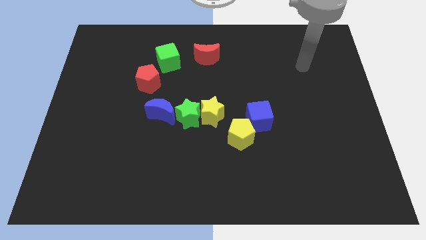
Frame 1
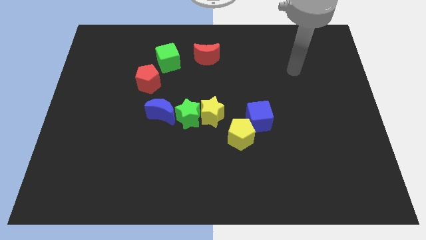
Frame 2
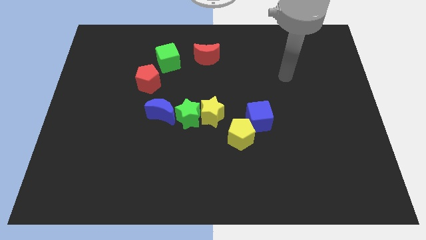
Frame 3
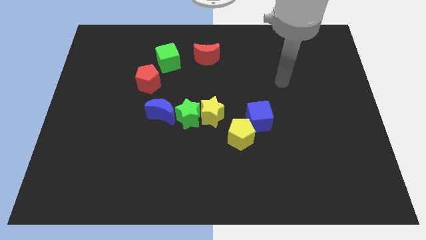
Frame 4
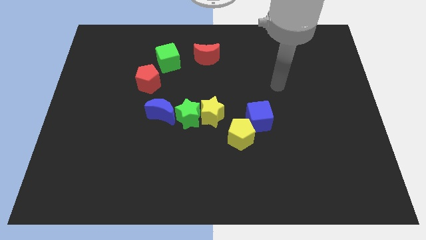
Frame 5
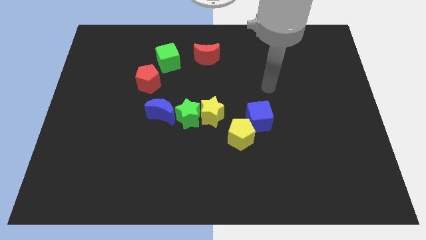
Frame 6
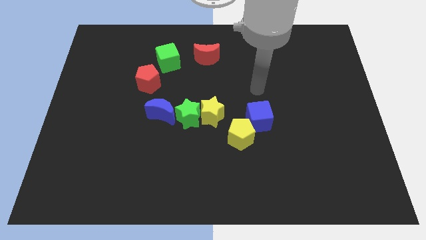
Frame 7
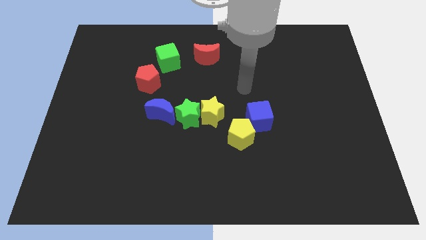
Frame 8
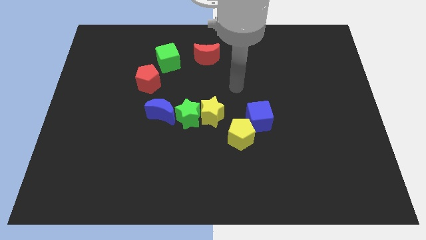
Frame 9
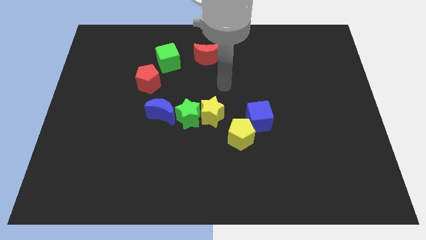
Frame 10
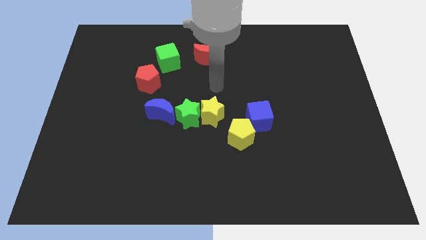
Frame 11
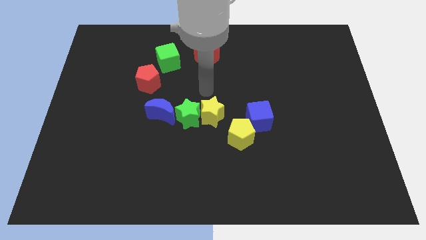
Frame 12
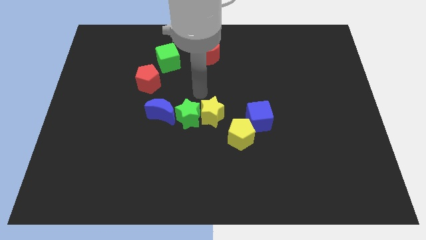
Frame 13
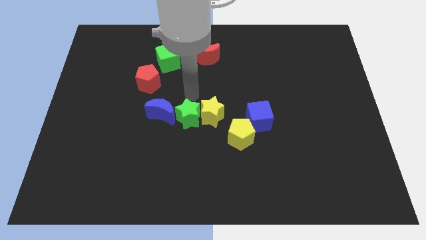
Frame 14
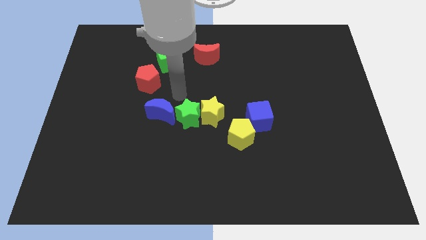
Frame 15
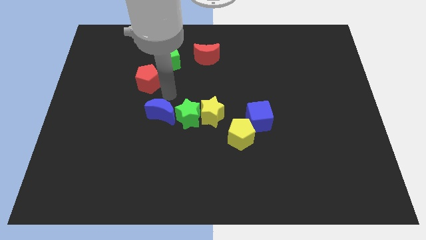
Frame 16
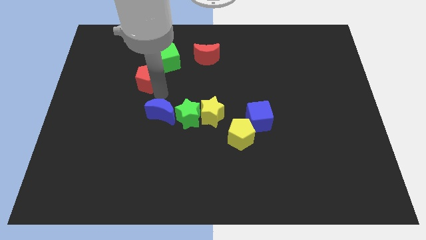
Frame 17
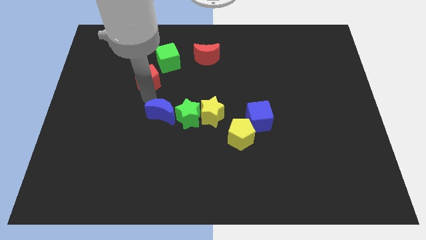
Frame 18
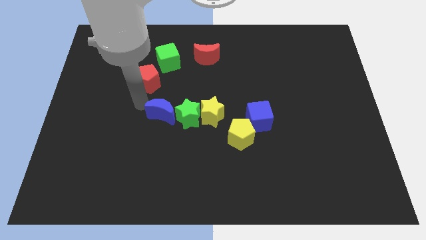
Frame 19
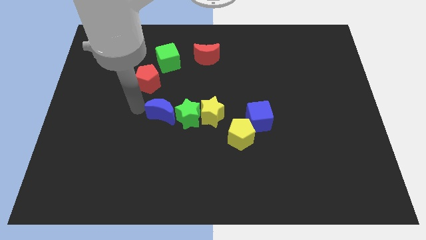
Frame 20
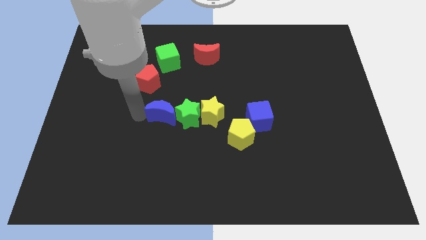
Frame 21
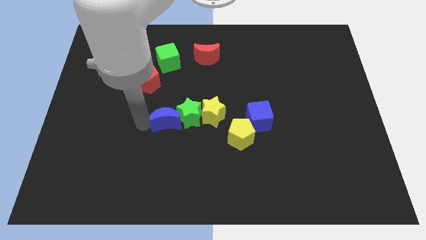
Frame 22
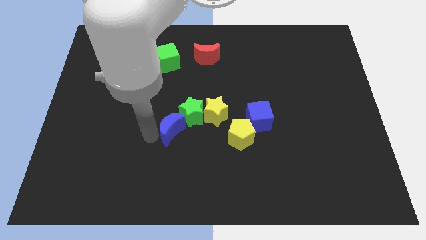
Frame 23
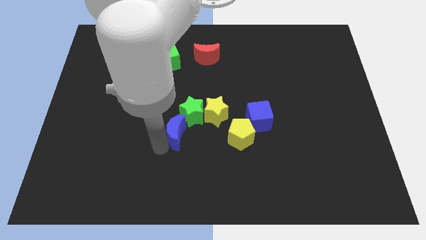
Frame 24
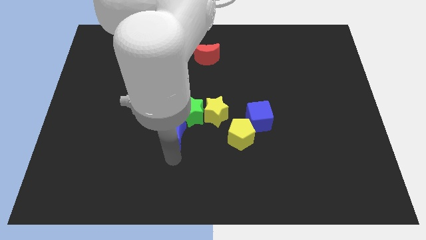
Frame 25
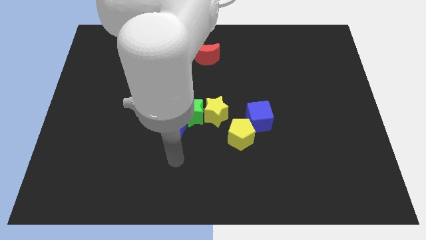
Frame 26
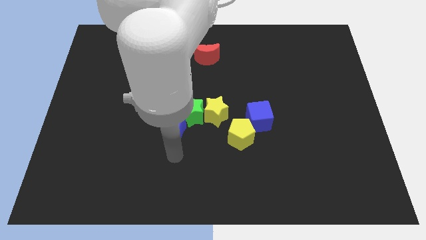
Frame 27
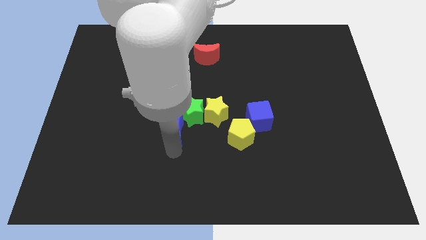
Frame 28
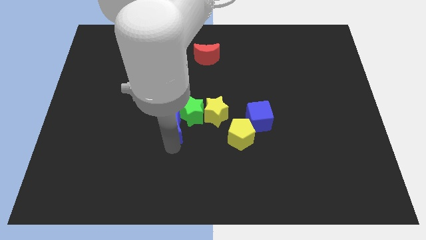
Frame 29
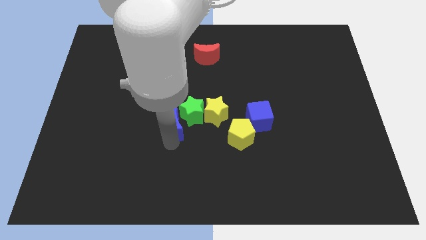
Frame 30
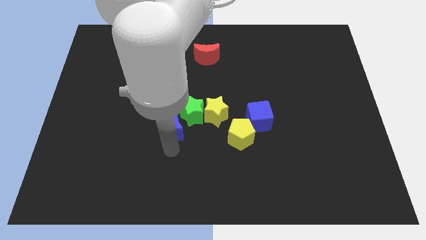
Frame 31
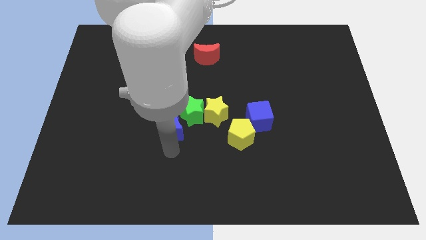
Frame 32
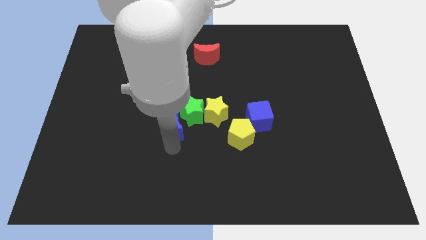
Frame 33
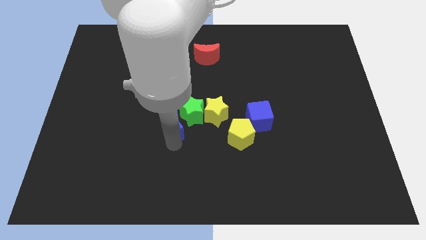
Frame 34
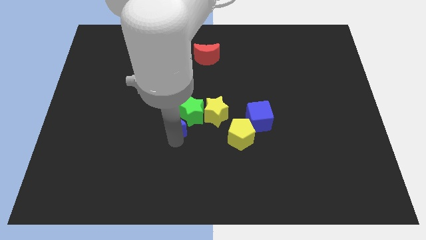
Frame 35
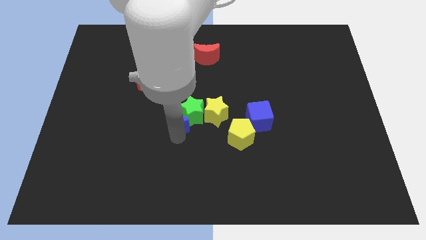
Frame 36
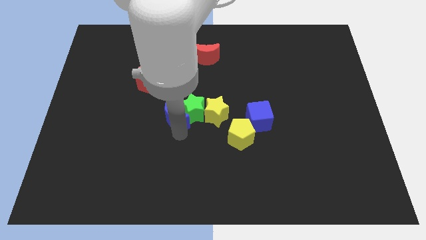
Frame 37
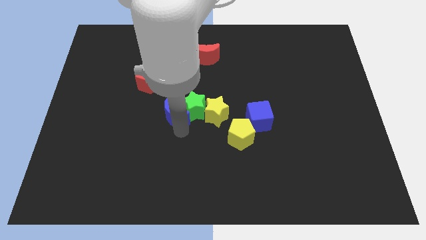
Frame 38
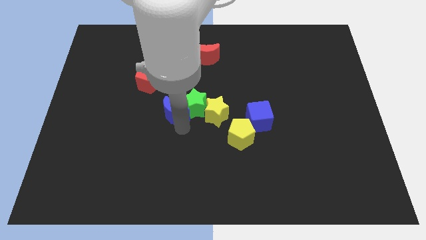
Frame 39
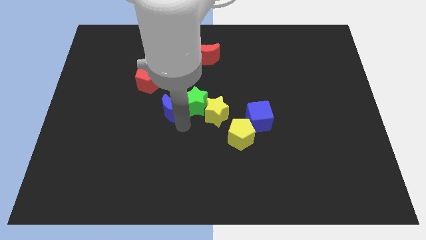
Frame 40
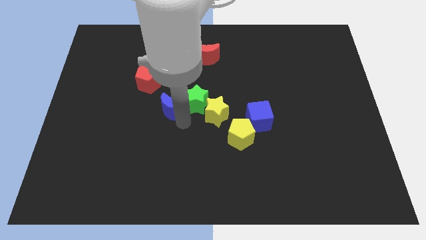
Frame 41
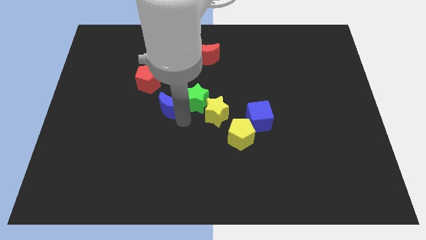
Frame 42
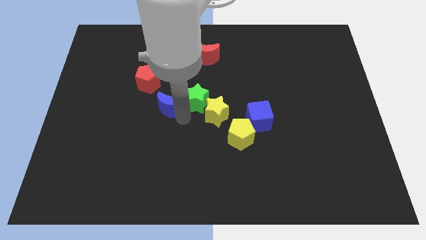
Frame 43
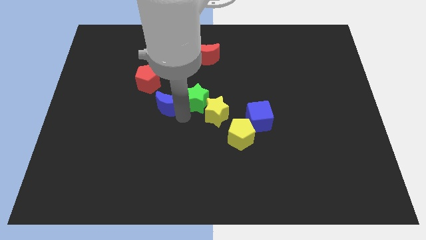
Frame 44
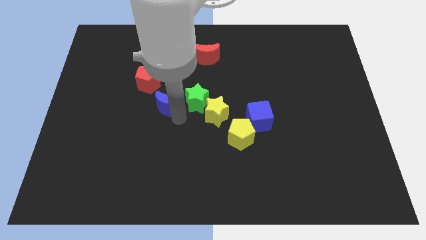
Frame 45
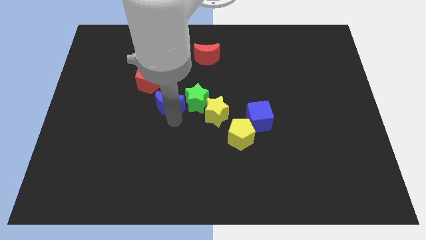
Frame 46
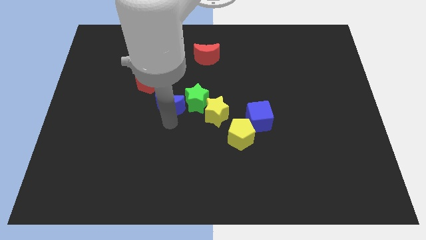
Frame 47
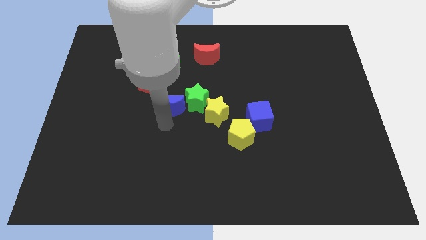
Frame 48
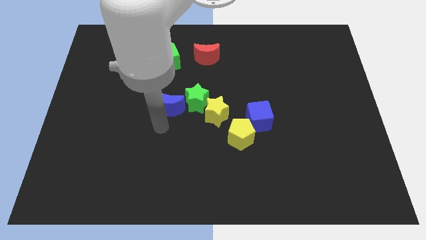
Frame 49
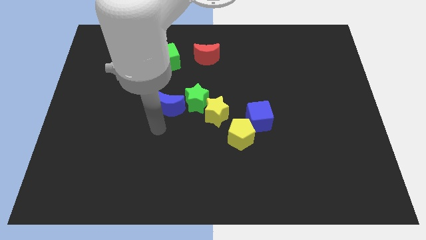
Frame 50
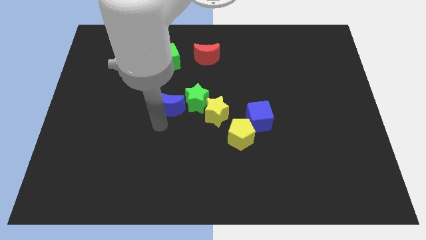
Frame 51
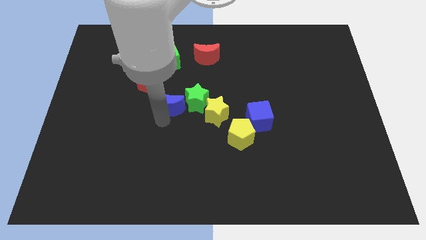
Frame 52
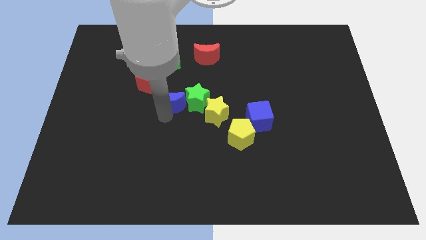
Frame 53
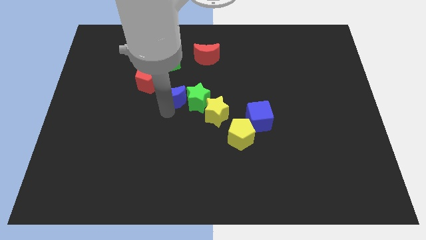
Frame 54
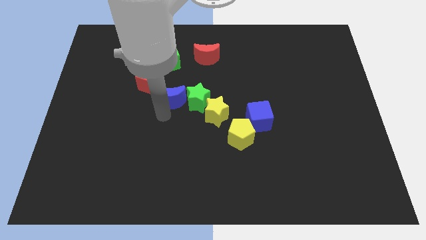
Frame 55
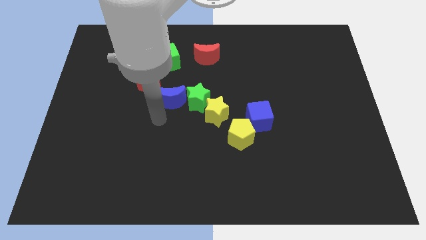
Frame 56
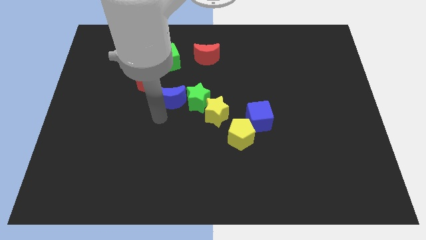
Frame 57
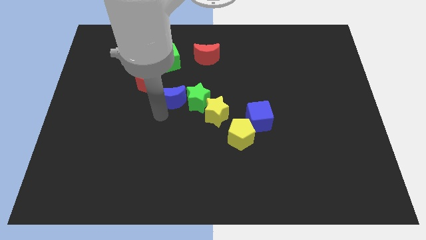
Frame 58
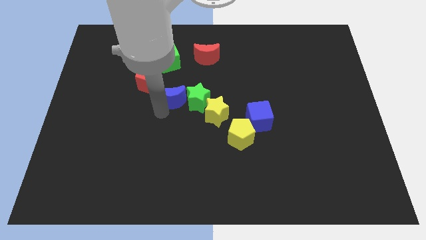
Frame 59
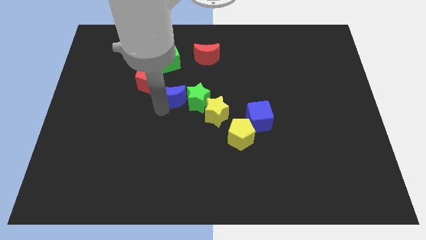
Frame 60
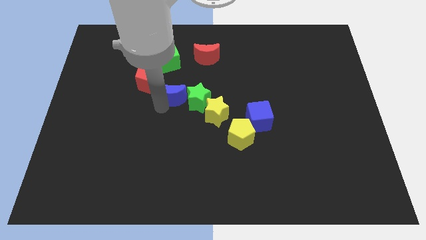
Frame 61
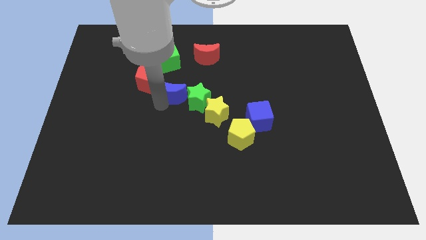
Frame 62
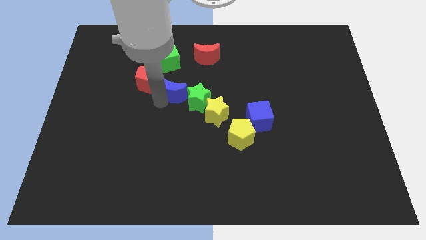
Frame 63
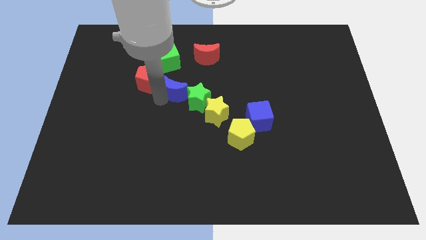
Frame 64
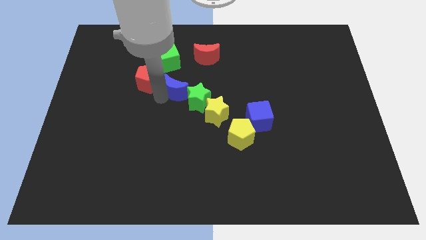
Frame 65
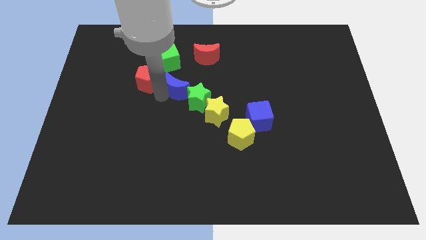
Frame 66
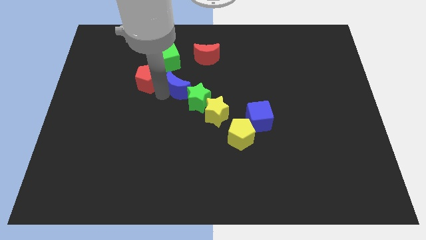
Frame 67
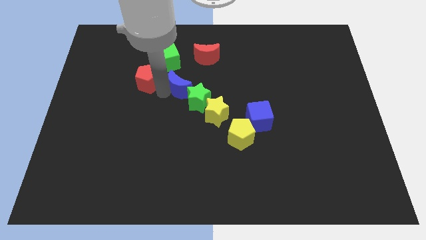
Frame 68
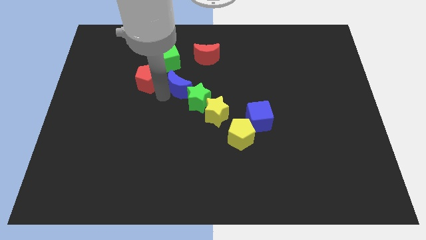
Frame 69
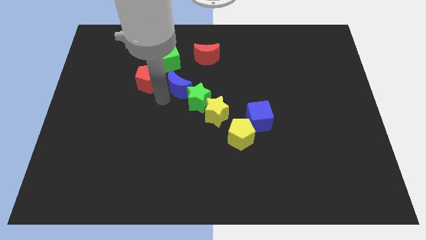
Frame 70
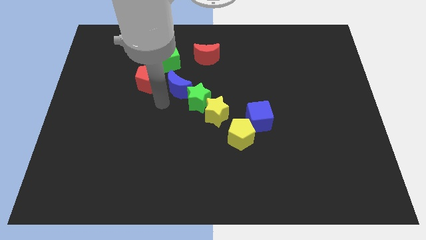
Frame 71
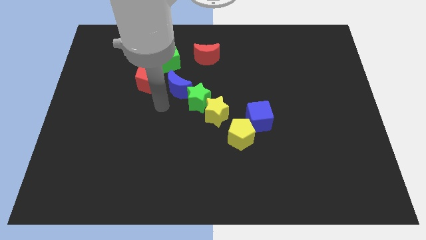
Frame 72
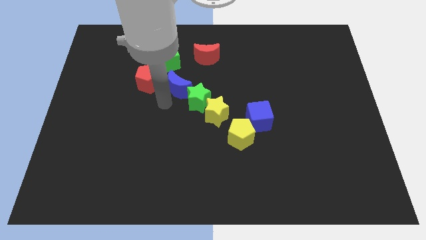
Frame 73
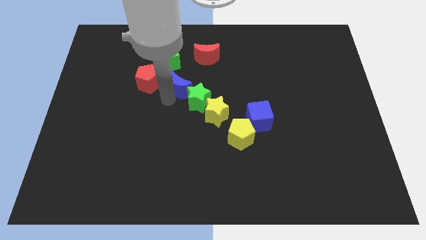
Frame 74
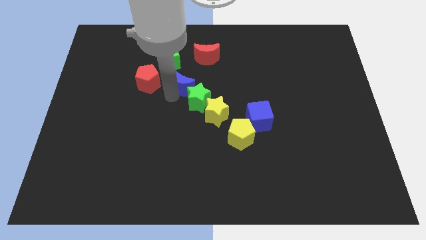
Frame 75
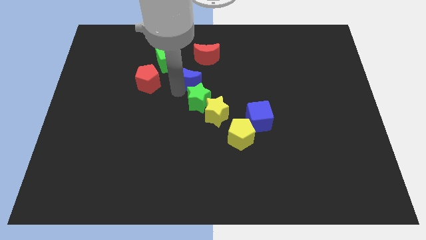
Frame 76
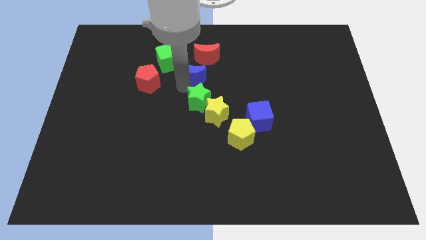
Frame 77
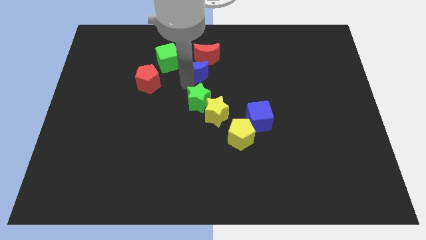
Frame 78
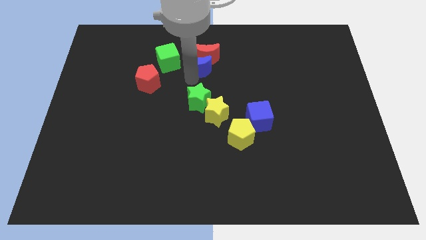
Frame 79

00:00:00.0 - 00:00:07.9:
move the blue moon next to the red moon

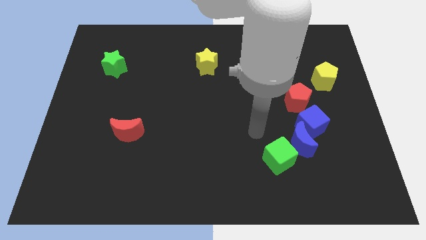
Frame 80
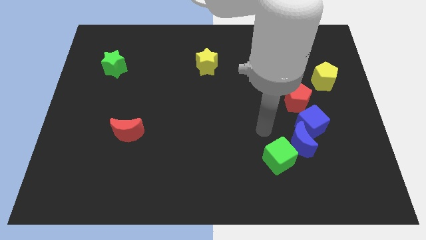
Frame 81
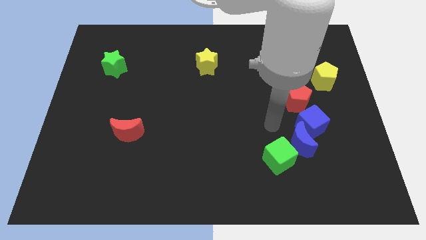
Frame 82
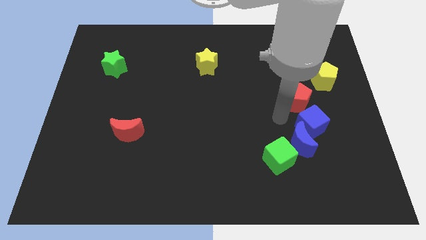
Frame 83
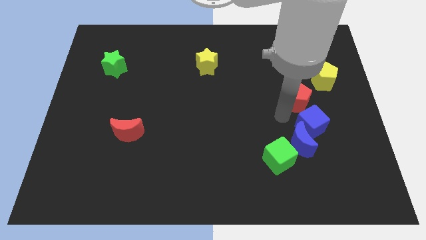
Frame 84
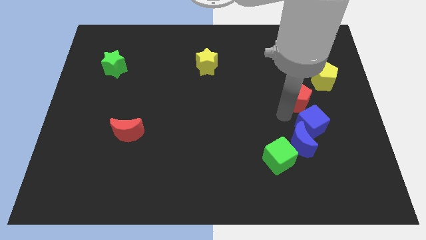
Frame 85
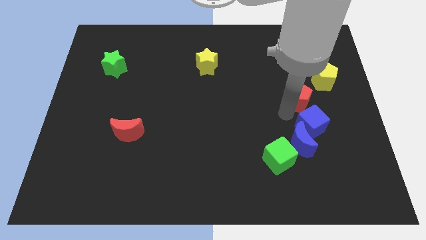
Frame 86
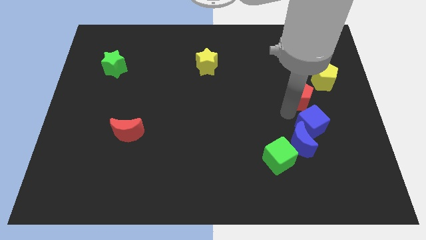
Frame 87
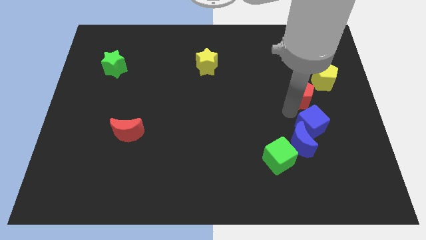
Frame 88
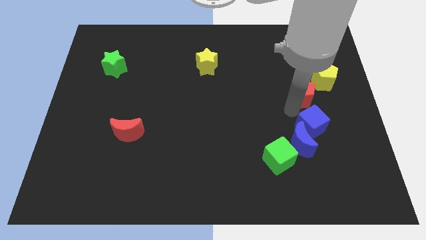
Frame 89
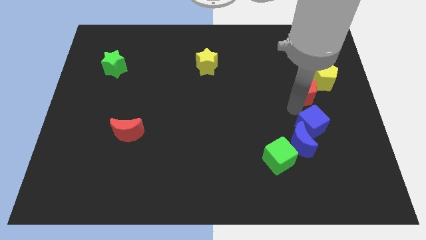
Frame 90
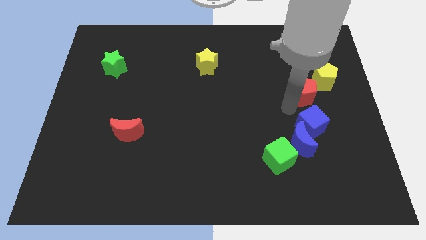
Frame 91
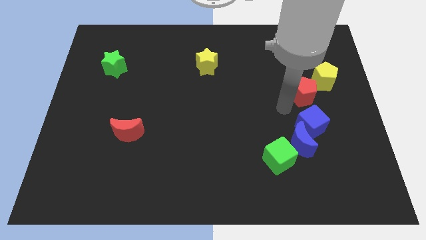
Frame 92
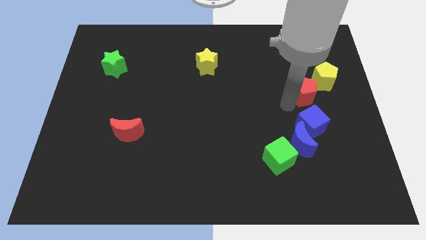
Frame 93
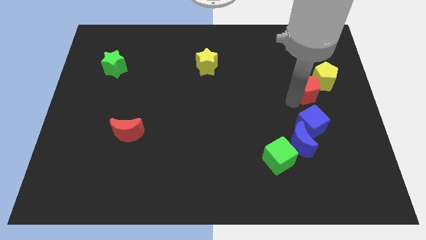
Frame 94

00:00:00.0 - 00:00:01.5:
push the red pentagon next to the yellow pentagon
